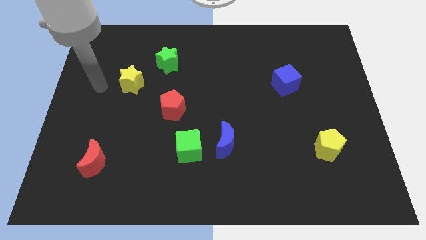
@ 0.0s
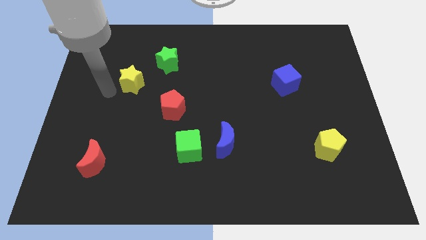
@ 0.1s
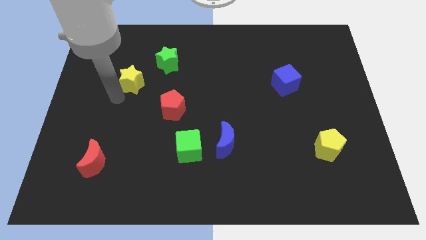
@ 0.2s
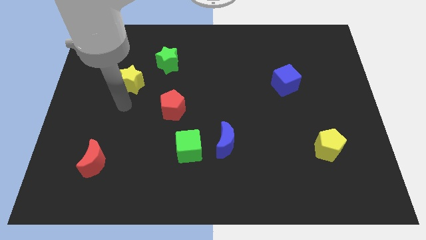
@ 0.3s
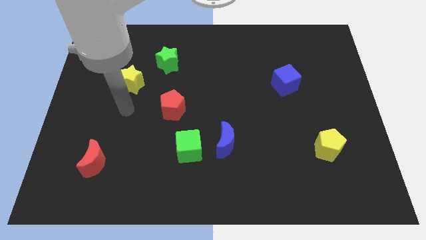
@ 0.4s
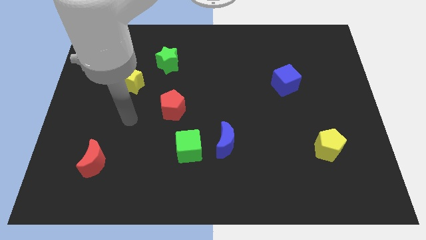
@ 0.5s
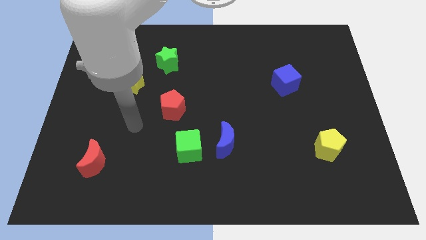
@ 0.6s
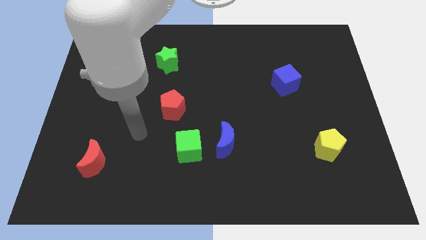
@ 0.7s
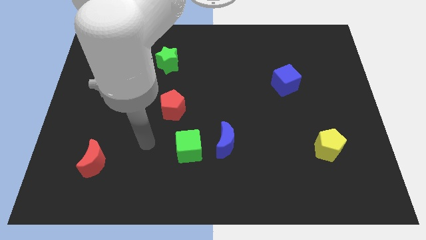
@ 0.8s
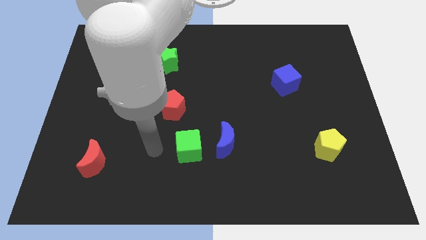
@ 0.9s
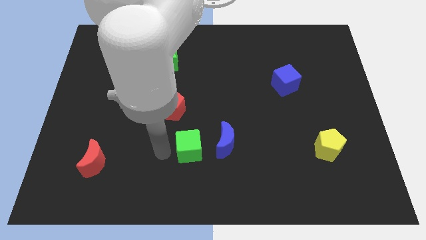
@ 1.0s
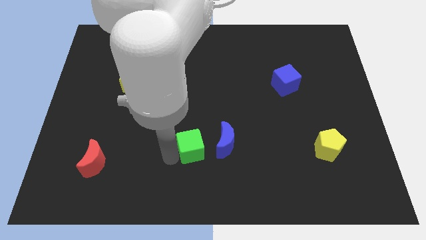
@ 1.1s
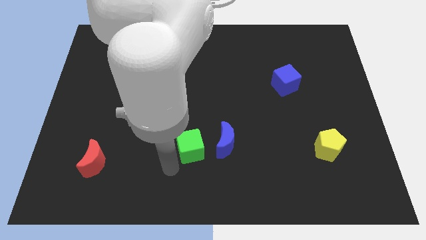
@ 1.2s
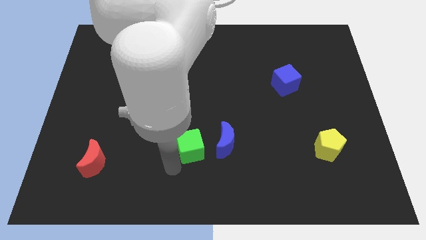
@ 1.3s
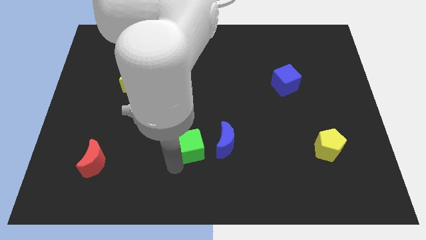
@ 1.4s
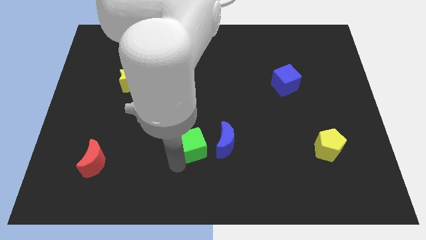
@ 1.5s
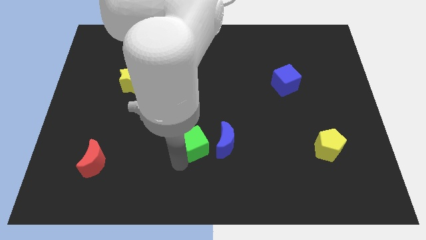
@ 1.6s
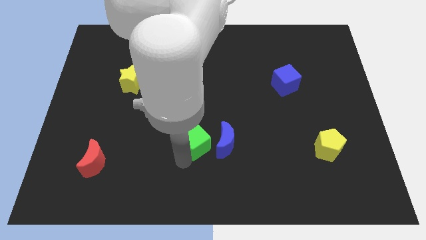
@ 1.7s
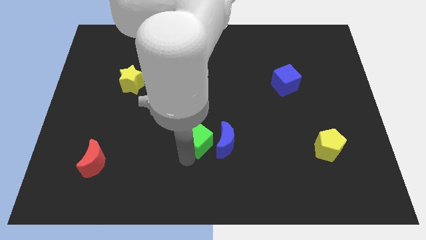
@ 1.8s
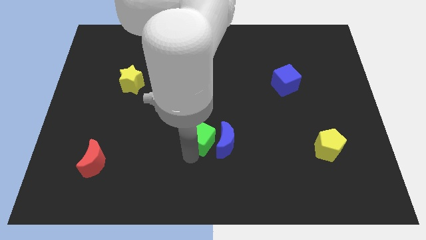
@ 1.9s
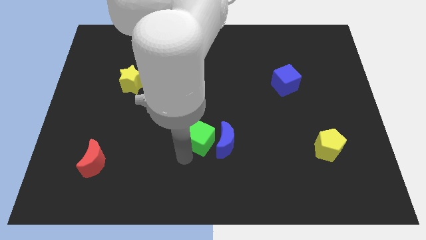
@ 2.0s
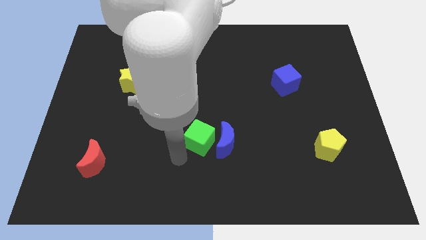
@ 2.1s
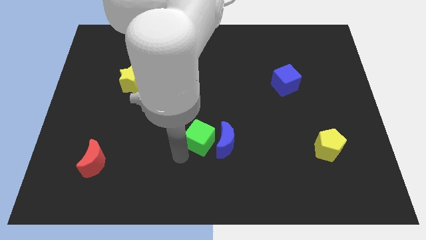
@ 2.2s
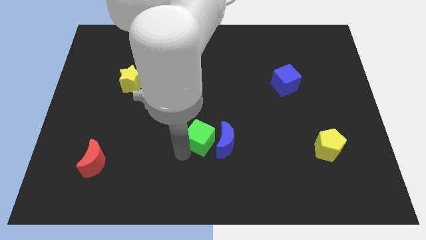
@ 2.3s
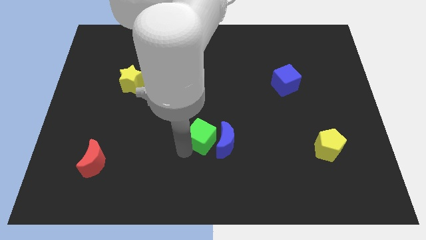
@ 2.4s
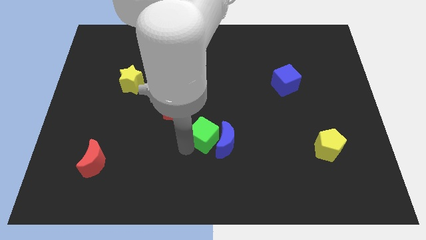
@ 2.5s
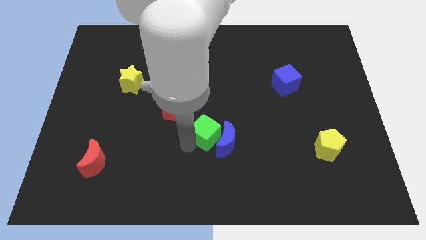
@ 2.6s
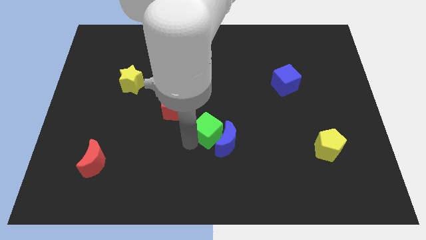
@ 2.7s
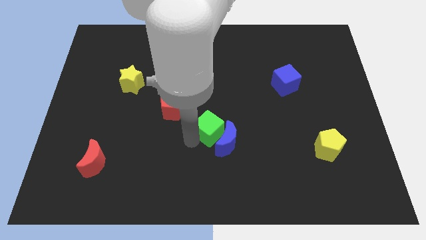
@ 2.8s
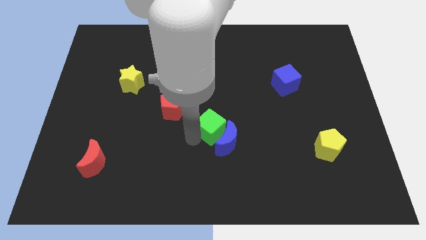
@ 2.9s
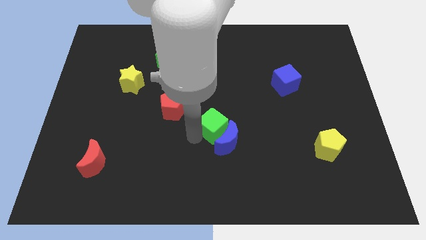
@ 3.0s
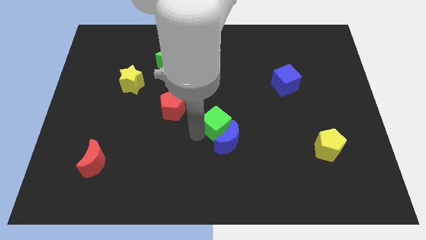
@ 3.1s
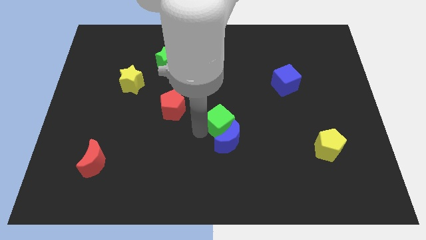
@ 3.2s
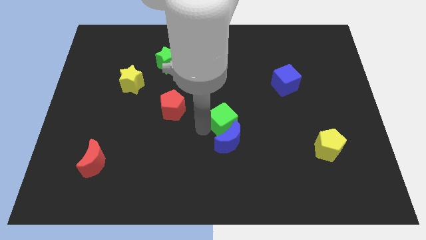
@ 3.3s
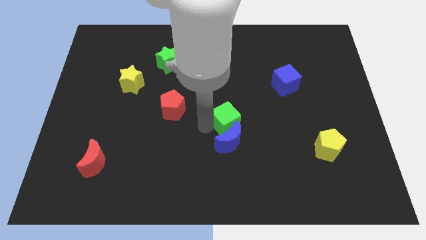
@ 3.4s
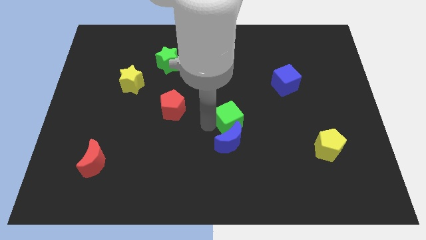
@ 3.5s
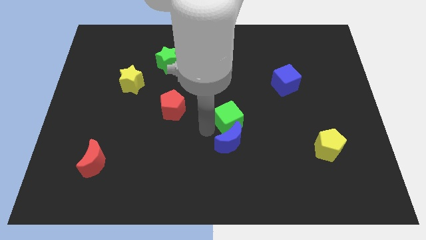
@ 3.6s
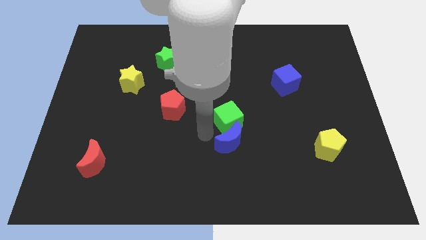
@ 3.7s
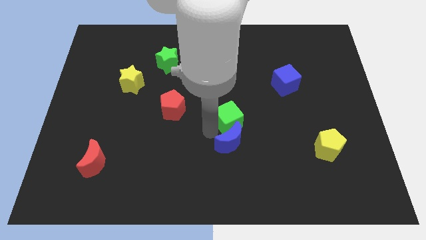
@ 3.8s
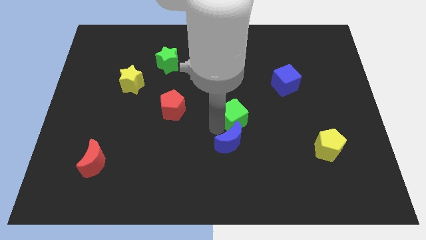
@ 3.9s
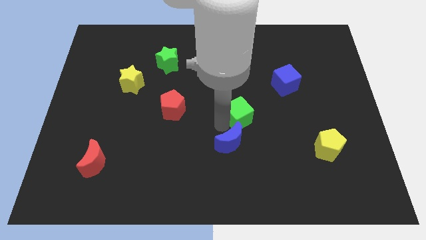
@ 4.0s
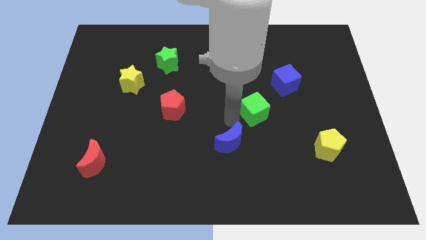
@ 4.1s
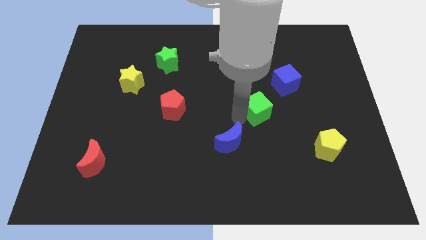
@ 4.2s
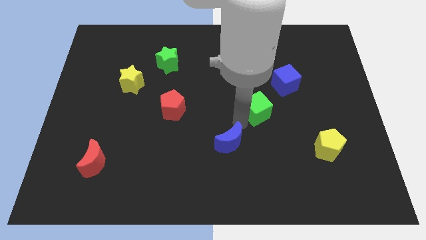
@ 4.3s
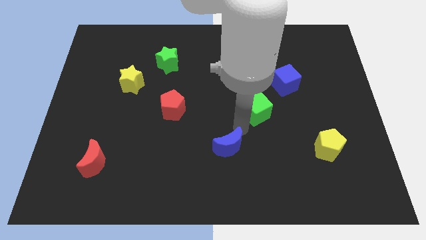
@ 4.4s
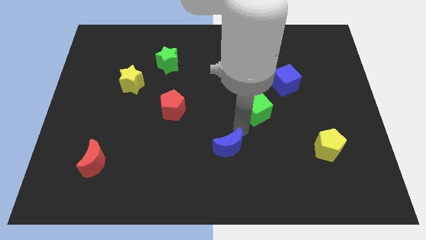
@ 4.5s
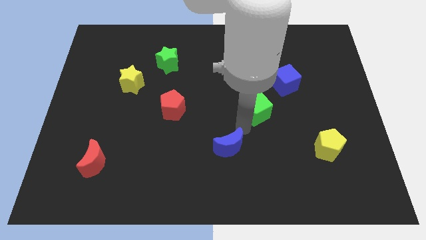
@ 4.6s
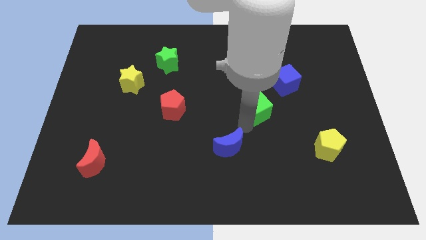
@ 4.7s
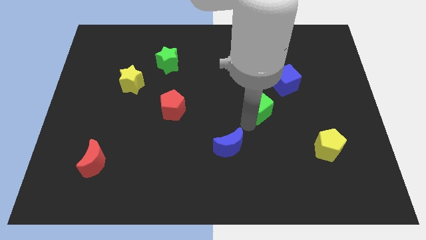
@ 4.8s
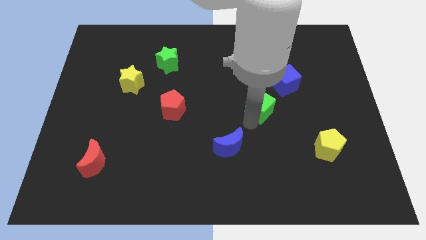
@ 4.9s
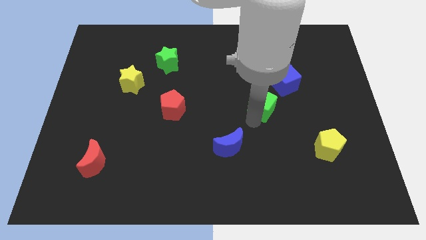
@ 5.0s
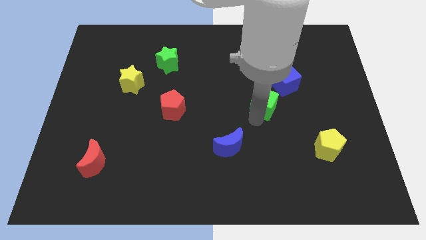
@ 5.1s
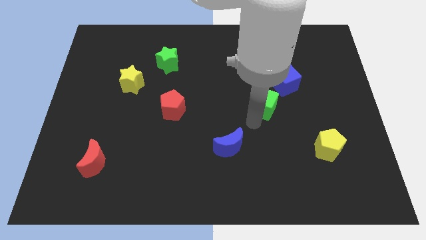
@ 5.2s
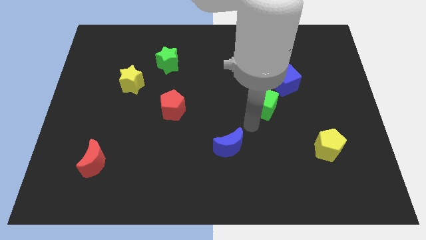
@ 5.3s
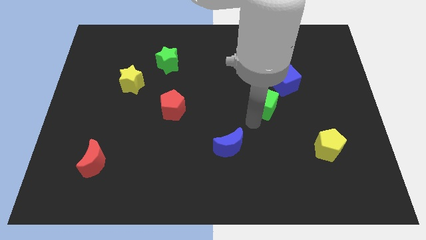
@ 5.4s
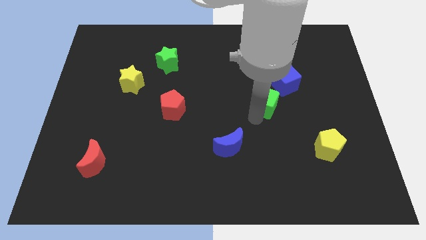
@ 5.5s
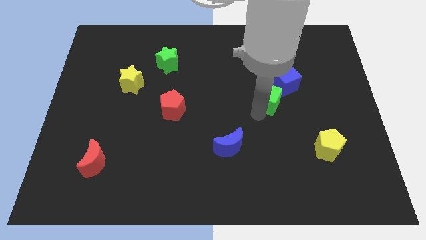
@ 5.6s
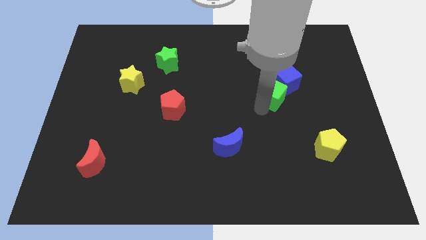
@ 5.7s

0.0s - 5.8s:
slide the green cube close to the blue cube

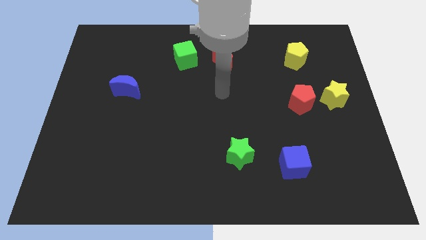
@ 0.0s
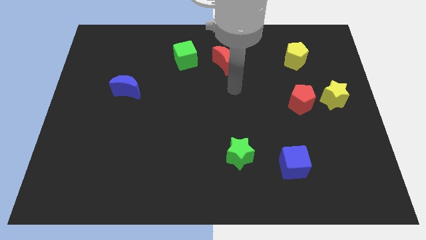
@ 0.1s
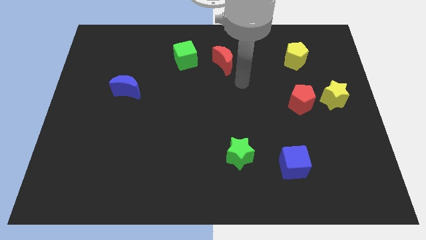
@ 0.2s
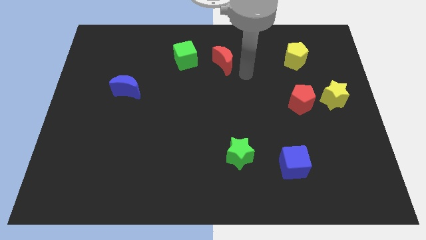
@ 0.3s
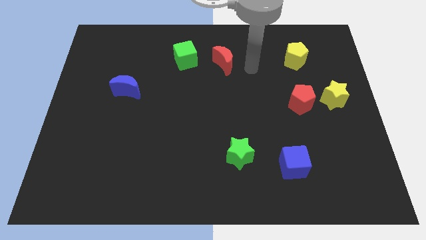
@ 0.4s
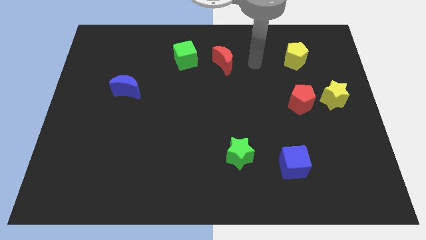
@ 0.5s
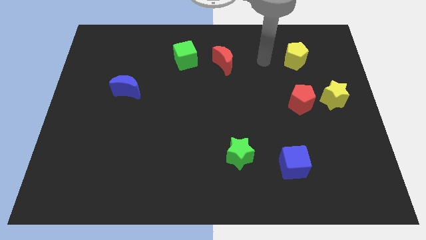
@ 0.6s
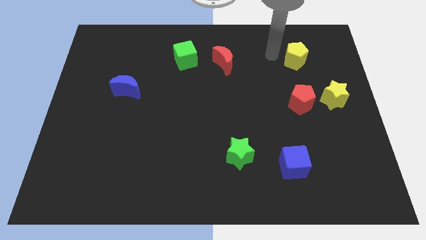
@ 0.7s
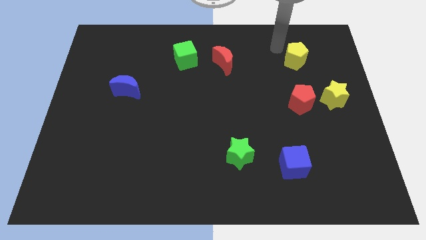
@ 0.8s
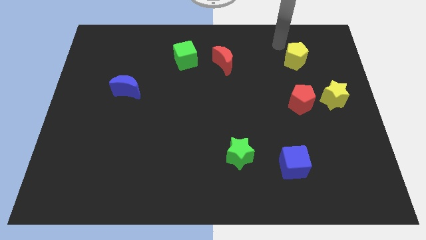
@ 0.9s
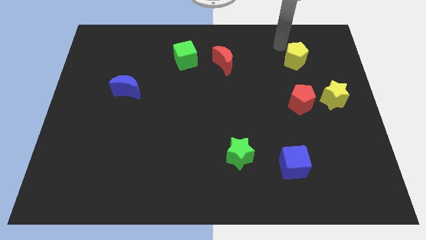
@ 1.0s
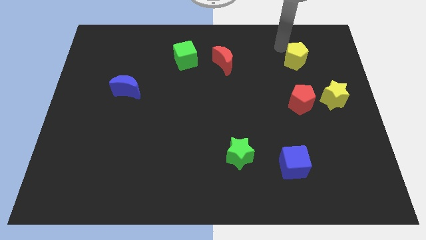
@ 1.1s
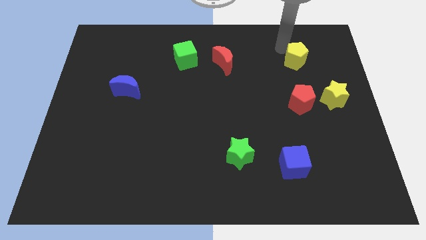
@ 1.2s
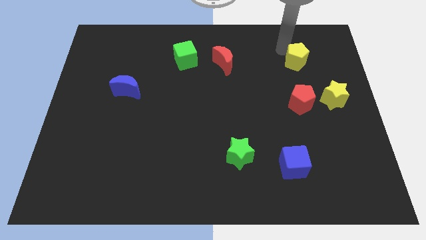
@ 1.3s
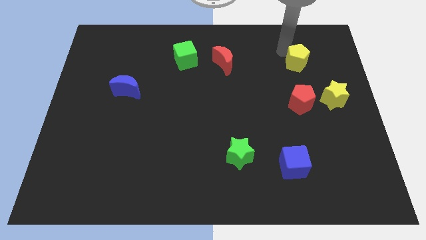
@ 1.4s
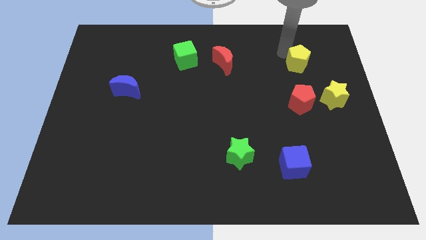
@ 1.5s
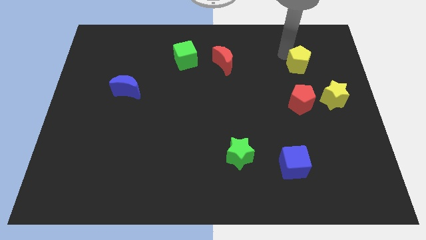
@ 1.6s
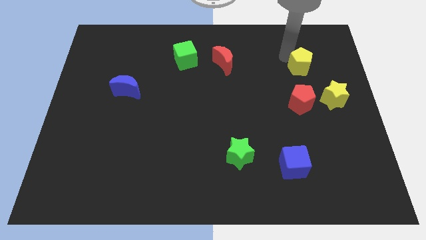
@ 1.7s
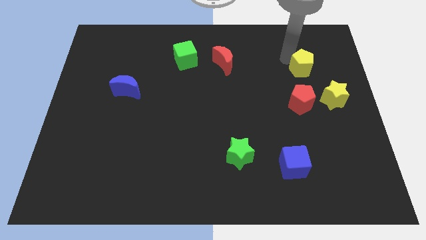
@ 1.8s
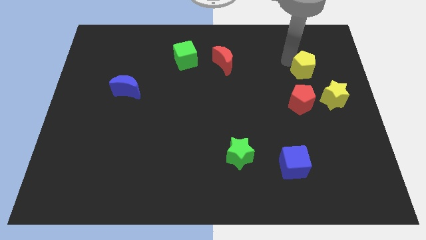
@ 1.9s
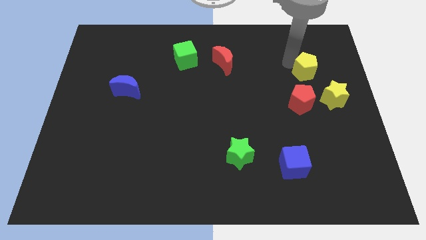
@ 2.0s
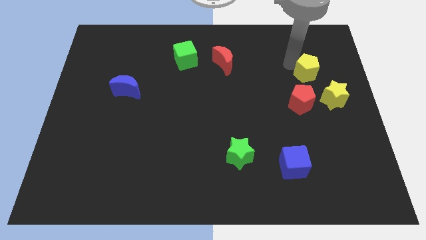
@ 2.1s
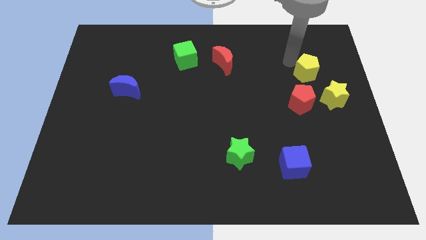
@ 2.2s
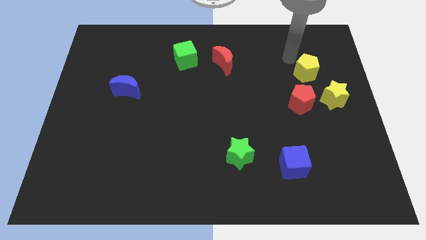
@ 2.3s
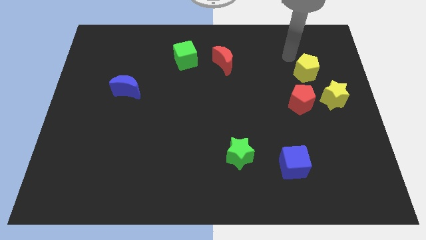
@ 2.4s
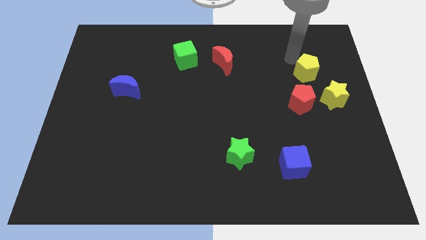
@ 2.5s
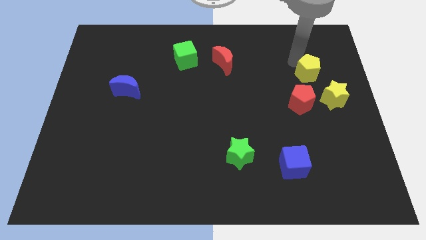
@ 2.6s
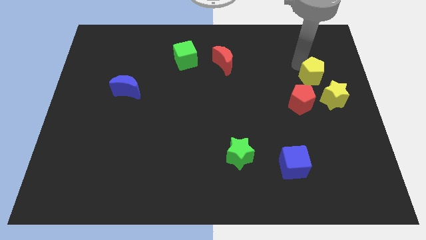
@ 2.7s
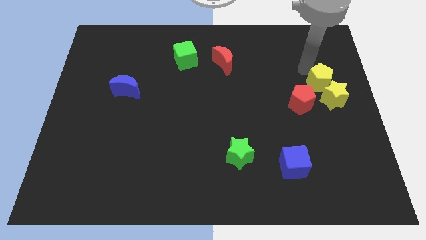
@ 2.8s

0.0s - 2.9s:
move the yellow pentagon to the yellow star
